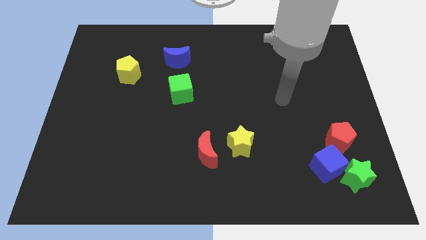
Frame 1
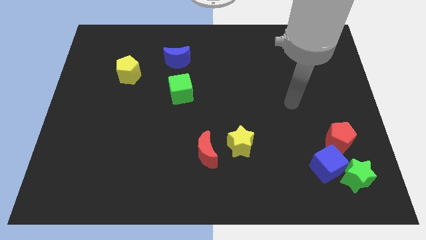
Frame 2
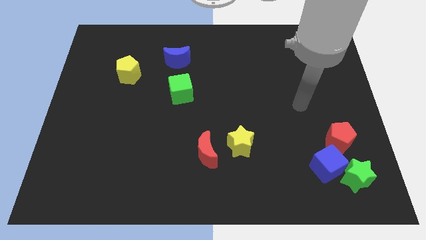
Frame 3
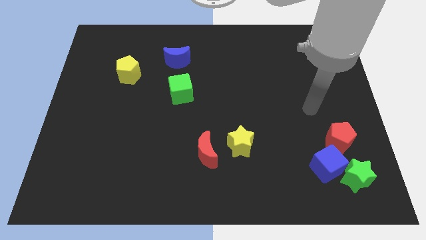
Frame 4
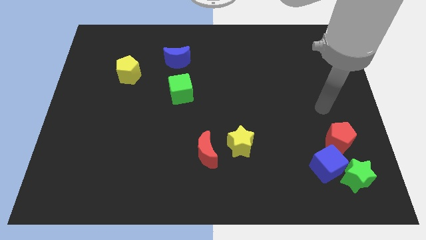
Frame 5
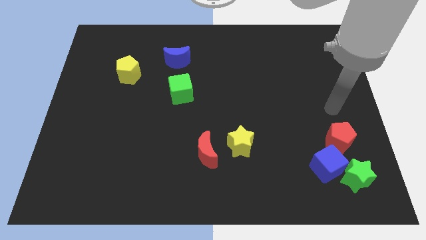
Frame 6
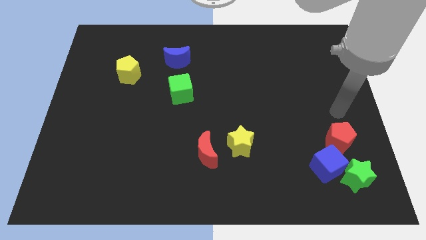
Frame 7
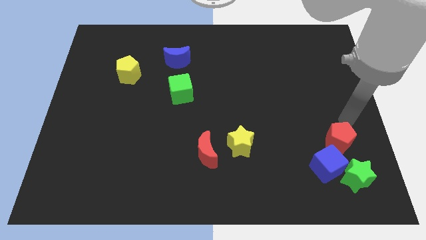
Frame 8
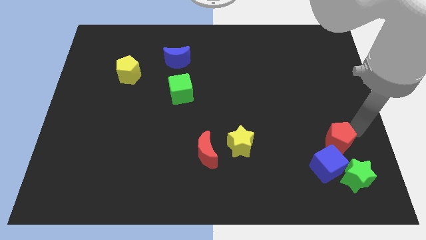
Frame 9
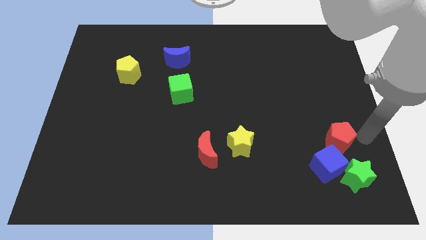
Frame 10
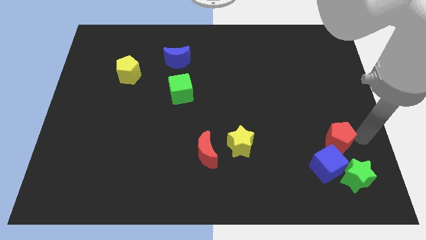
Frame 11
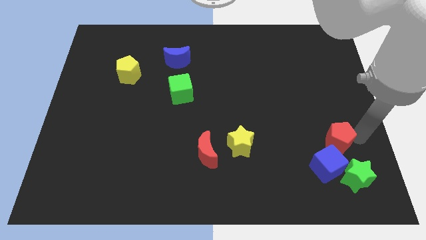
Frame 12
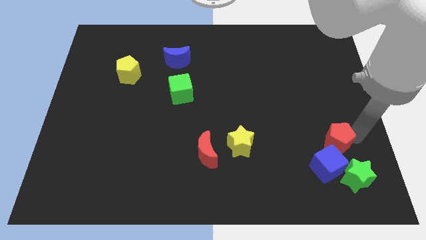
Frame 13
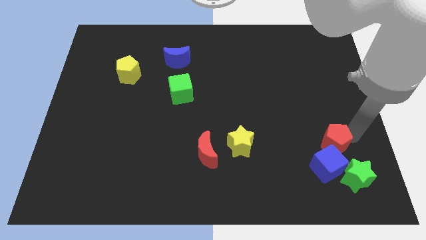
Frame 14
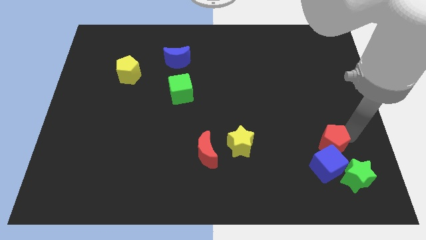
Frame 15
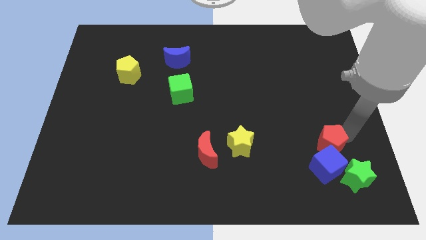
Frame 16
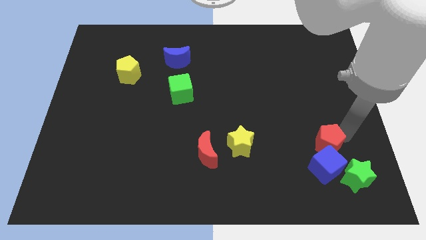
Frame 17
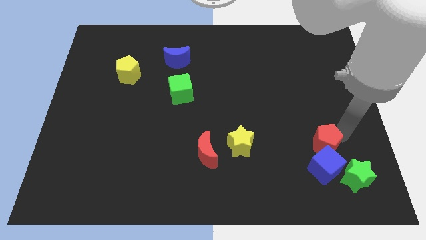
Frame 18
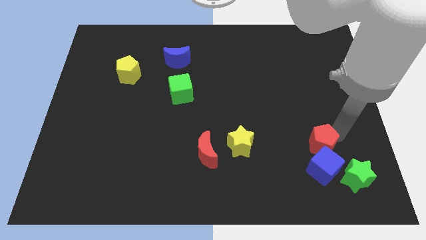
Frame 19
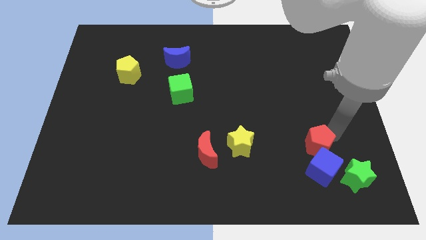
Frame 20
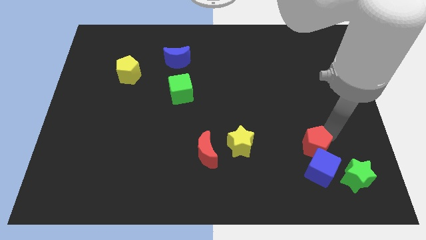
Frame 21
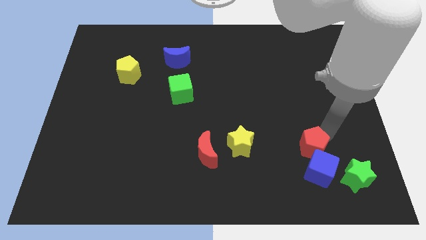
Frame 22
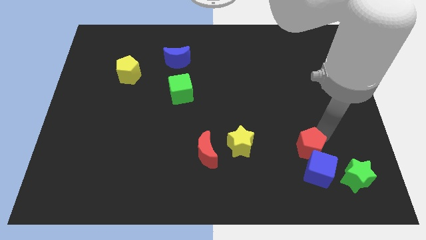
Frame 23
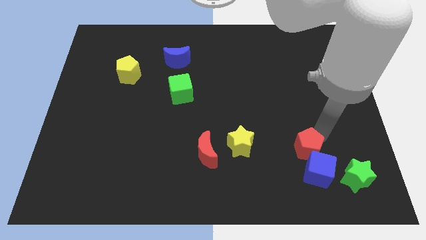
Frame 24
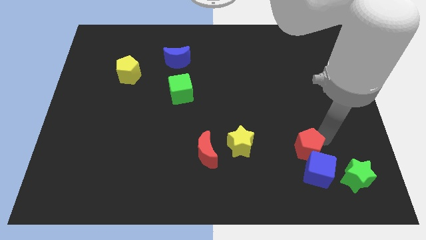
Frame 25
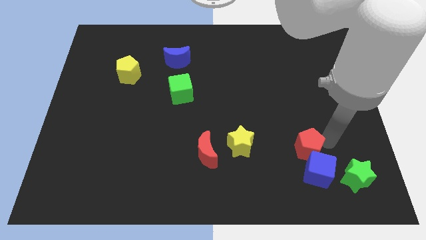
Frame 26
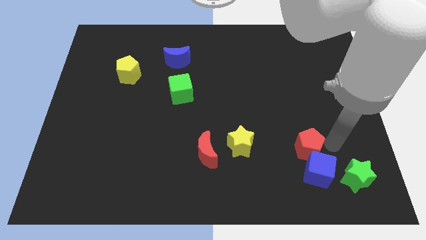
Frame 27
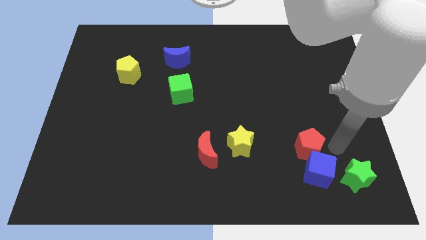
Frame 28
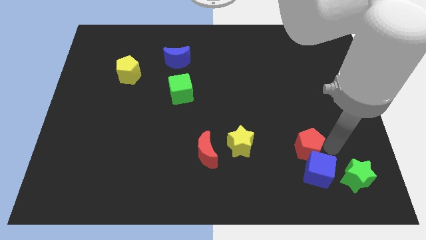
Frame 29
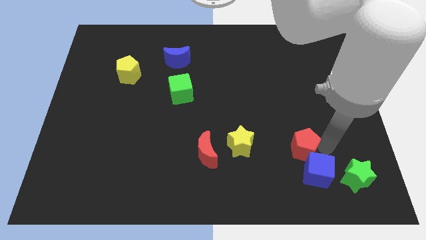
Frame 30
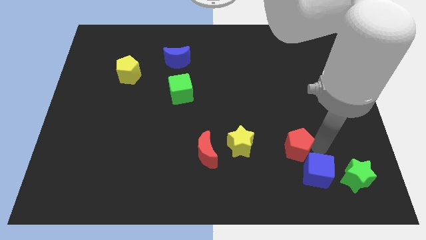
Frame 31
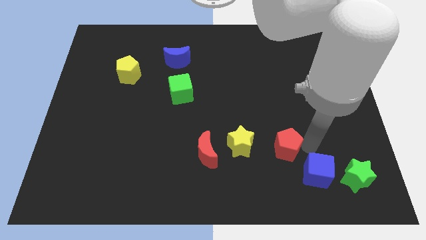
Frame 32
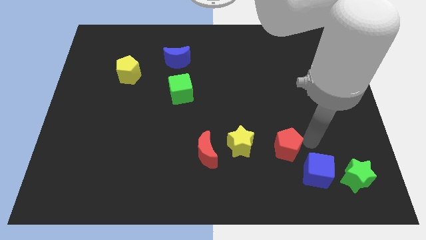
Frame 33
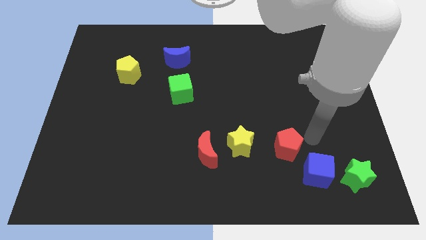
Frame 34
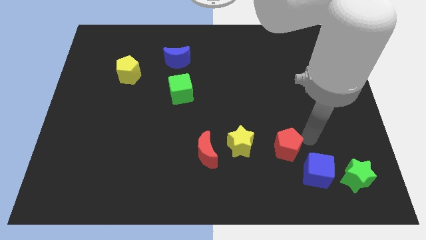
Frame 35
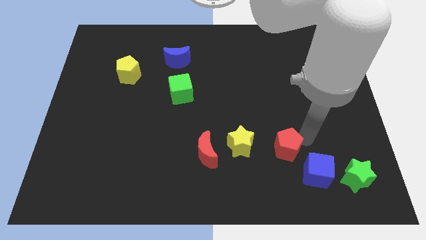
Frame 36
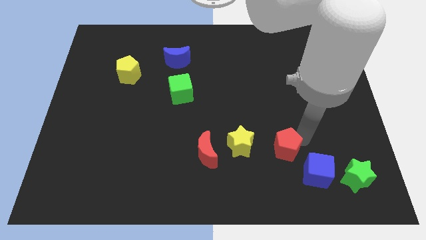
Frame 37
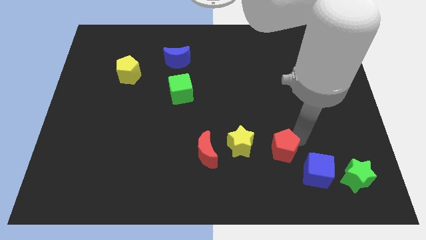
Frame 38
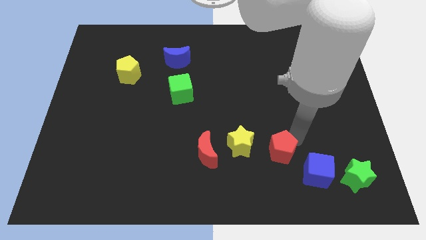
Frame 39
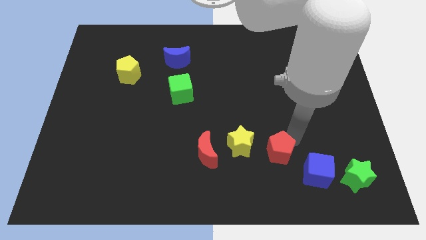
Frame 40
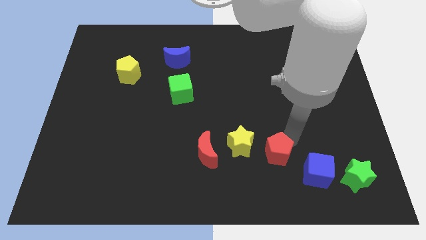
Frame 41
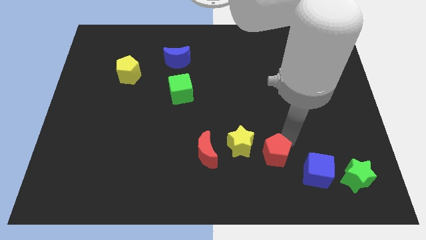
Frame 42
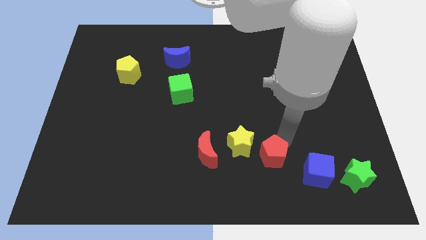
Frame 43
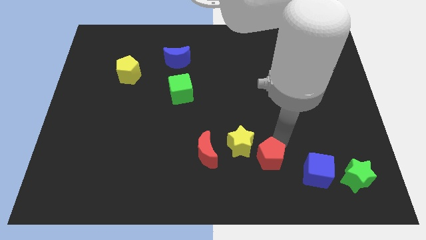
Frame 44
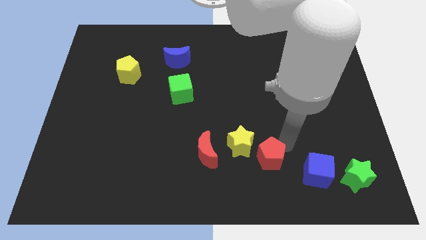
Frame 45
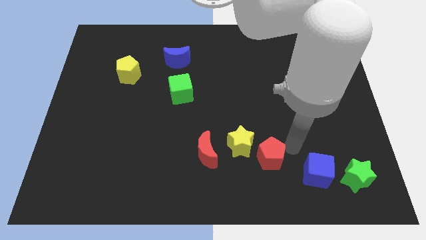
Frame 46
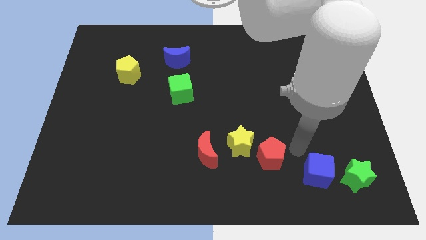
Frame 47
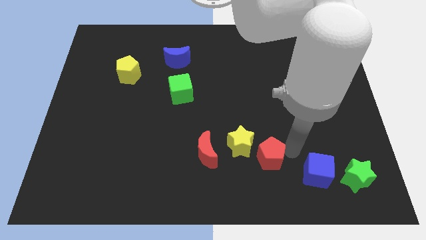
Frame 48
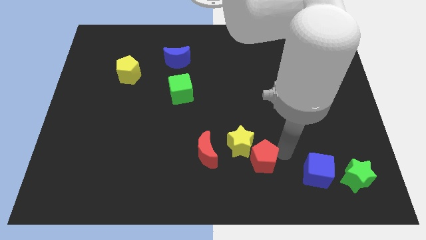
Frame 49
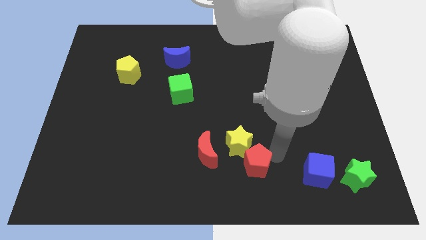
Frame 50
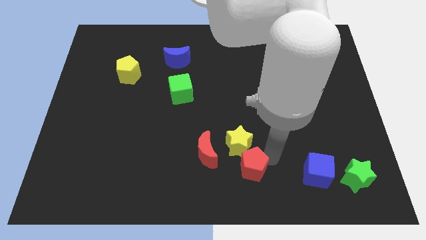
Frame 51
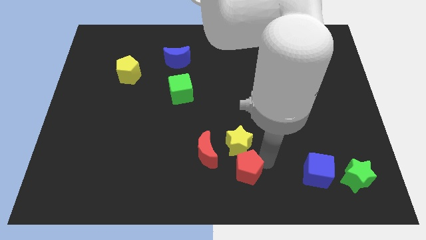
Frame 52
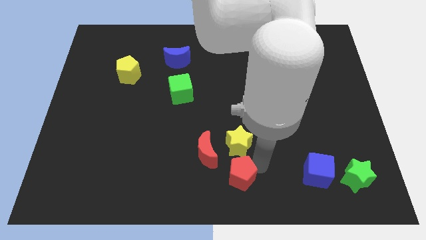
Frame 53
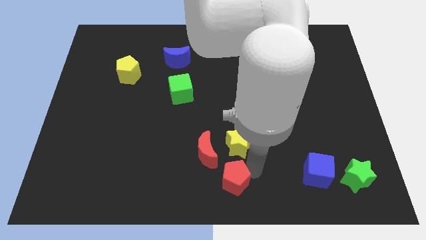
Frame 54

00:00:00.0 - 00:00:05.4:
slide the red pentagon to the bottom left of the yellow star

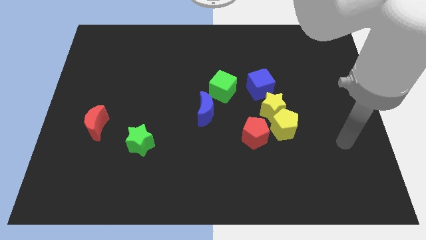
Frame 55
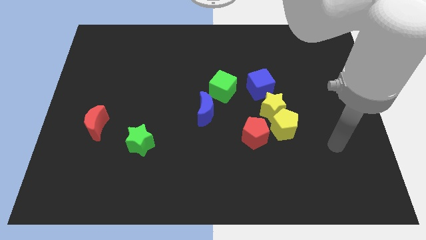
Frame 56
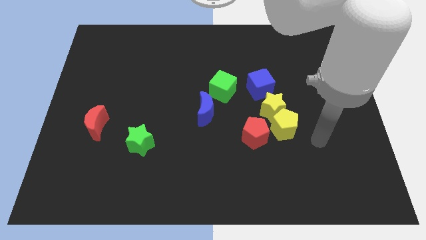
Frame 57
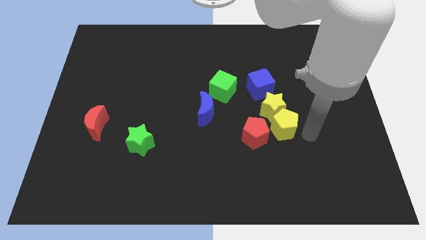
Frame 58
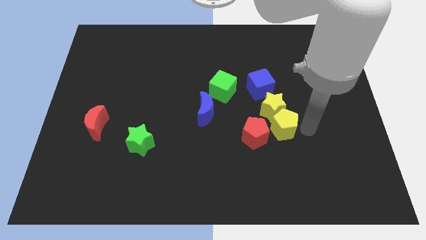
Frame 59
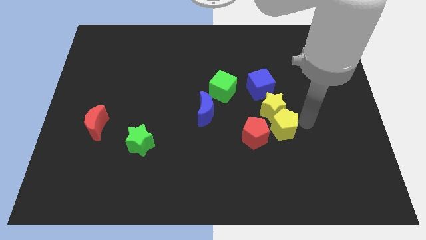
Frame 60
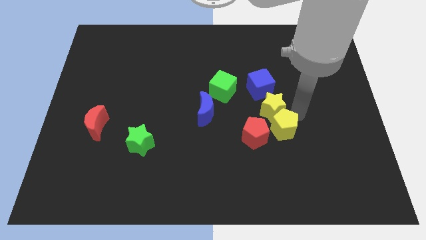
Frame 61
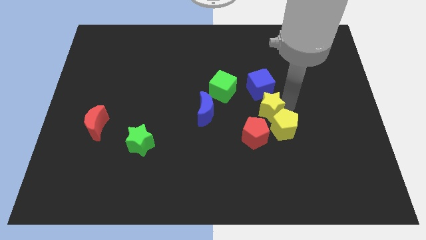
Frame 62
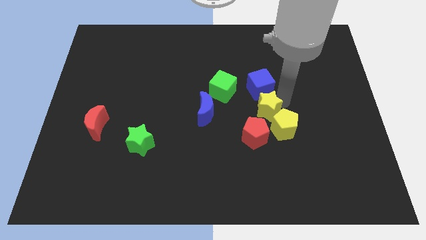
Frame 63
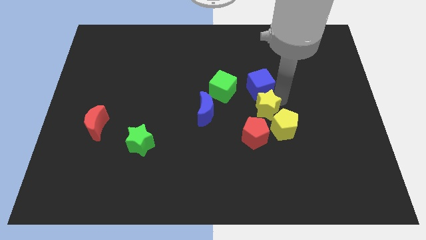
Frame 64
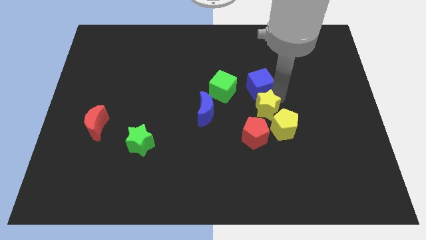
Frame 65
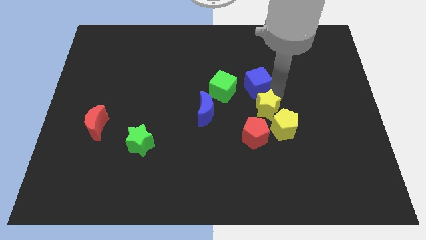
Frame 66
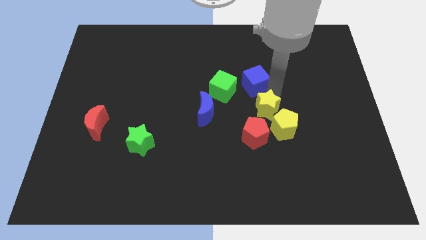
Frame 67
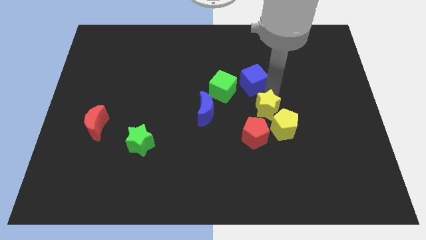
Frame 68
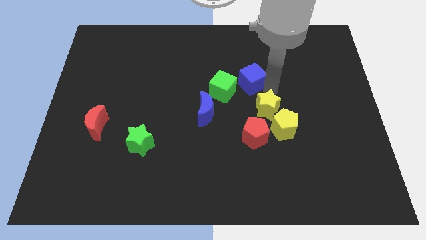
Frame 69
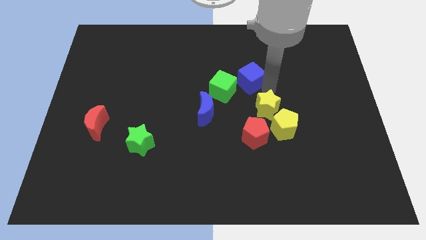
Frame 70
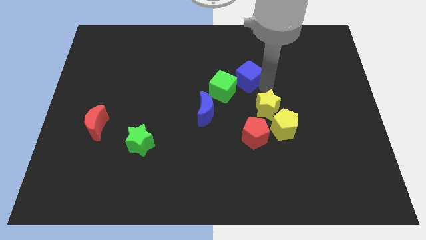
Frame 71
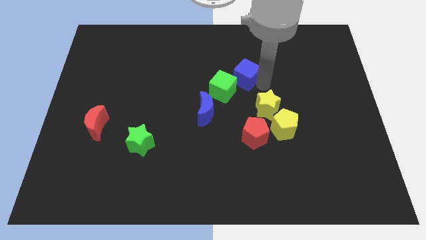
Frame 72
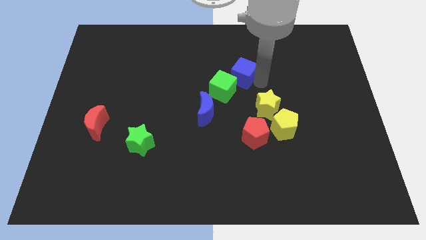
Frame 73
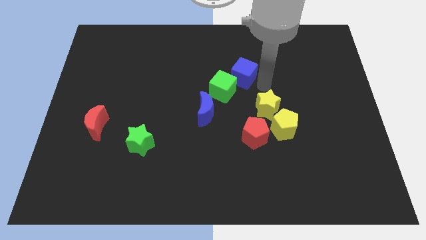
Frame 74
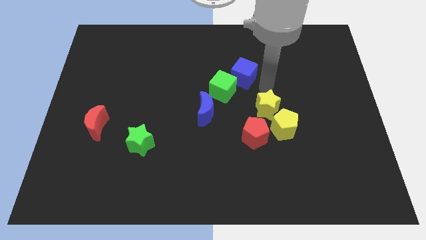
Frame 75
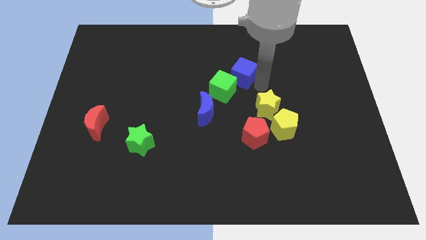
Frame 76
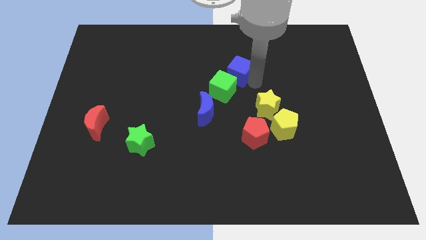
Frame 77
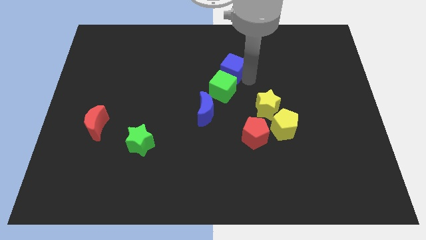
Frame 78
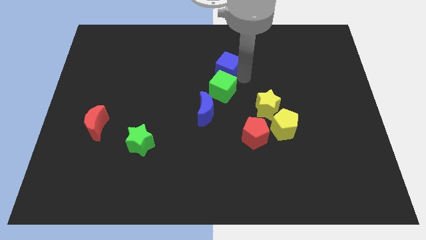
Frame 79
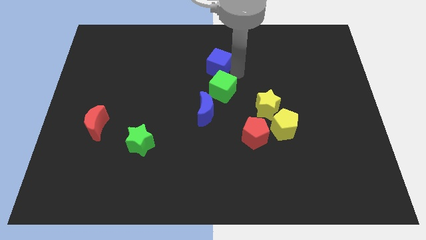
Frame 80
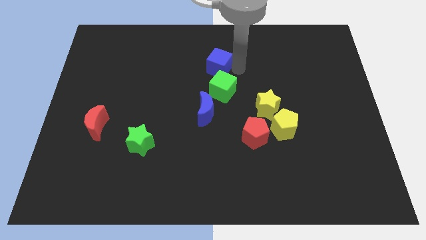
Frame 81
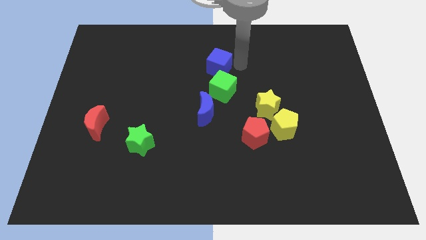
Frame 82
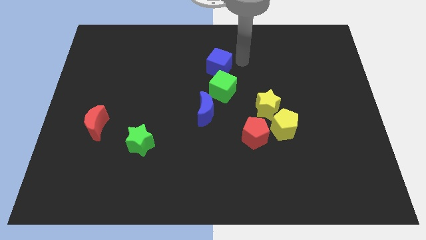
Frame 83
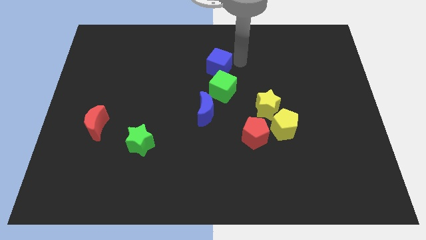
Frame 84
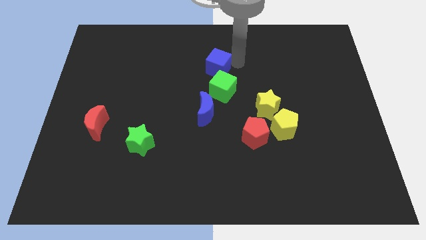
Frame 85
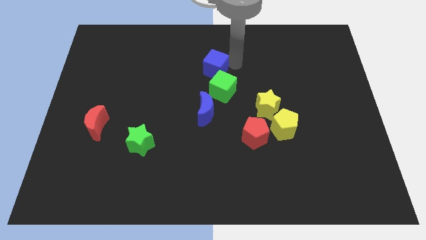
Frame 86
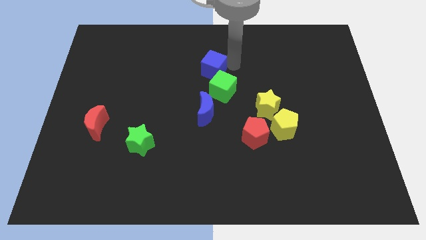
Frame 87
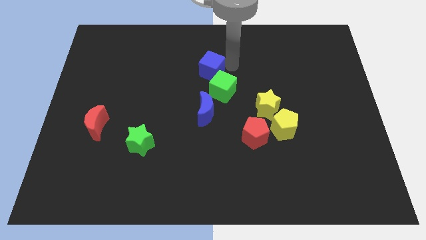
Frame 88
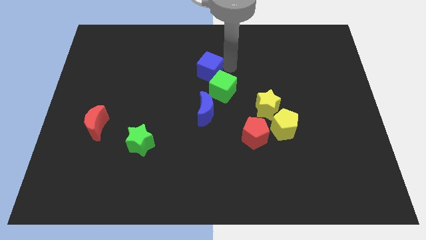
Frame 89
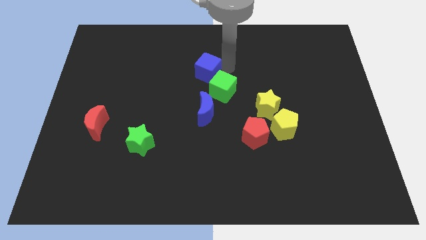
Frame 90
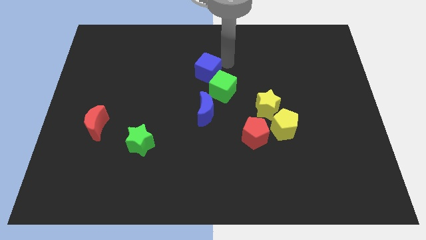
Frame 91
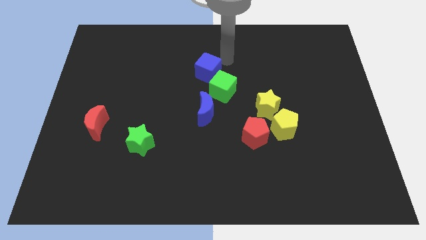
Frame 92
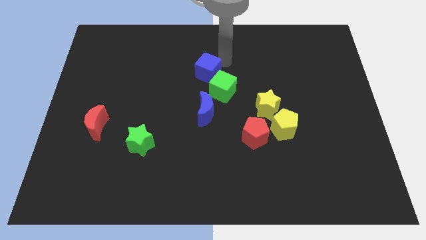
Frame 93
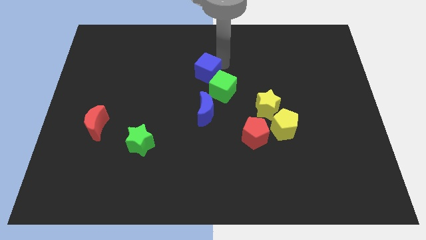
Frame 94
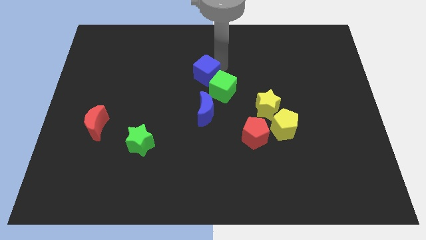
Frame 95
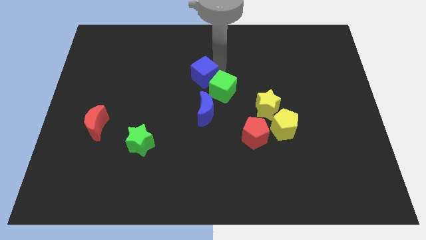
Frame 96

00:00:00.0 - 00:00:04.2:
put the blue cube to the left of the green cube
